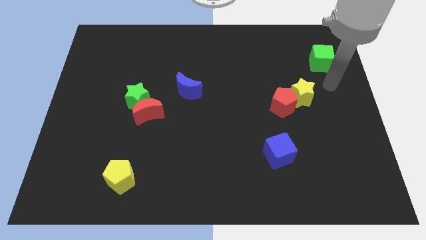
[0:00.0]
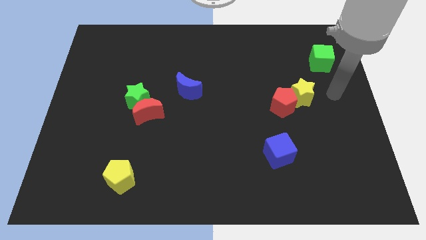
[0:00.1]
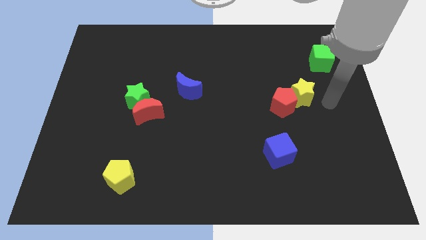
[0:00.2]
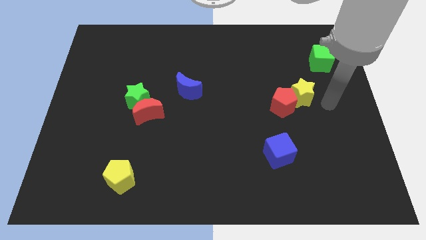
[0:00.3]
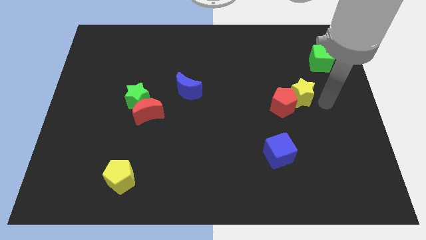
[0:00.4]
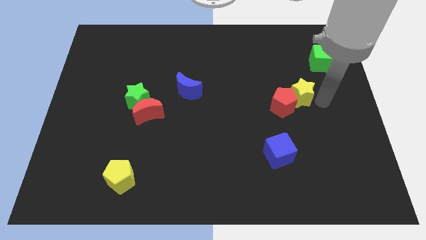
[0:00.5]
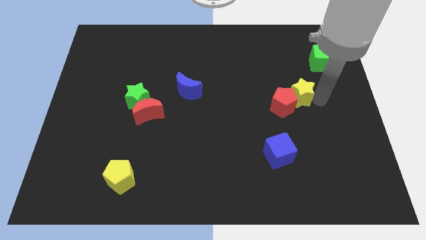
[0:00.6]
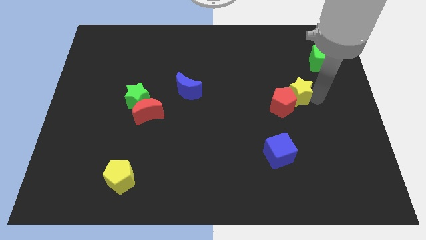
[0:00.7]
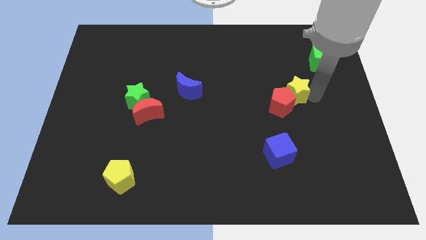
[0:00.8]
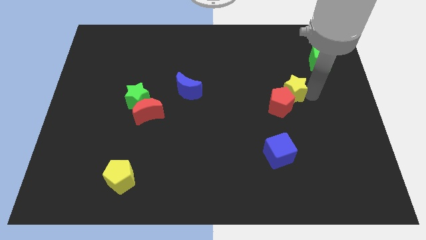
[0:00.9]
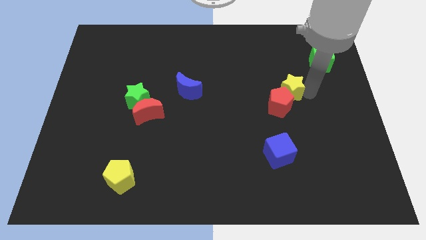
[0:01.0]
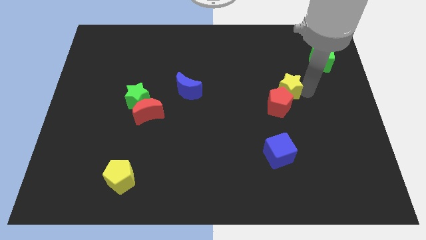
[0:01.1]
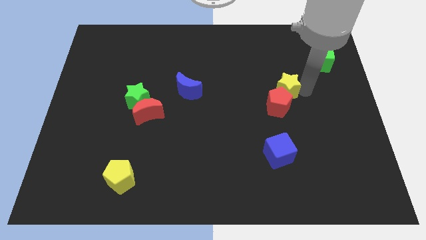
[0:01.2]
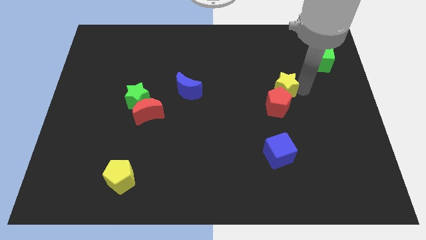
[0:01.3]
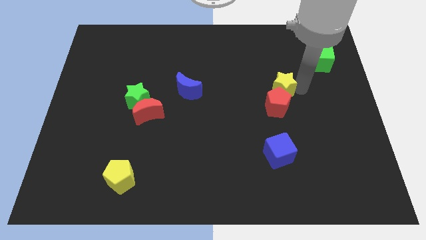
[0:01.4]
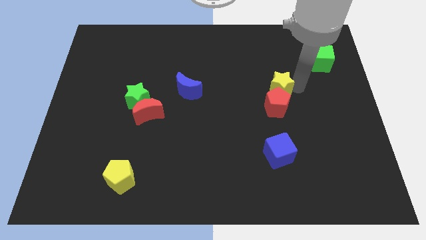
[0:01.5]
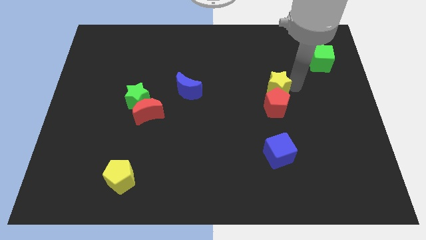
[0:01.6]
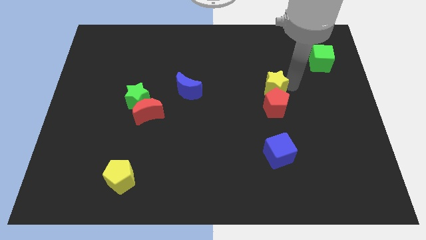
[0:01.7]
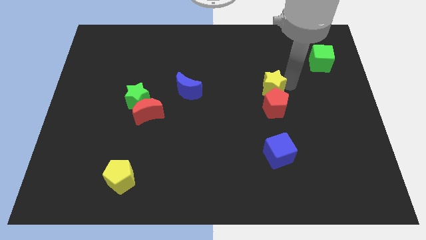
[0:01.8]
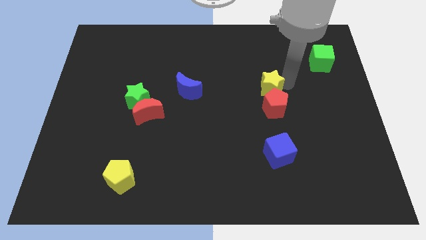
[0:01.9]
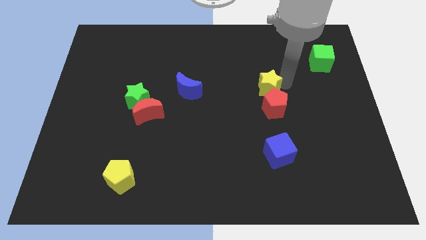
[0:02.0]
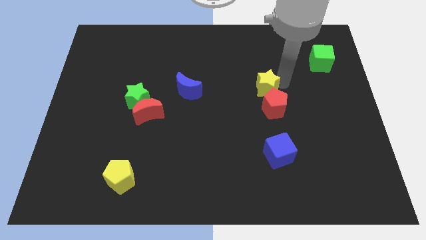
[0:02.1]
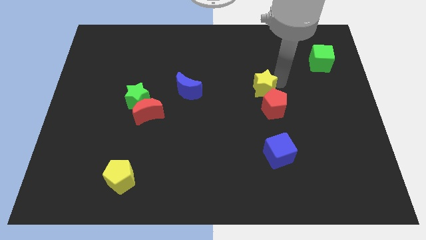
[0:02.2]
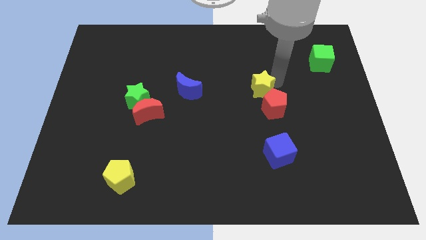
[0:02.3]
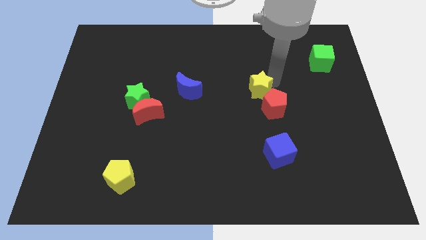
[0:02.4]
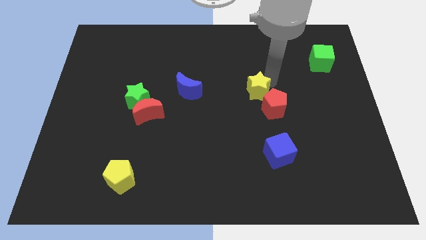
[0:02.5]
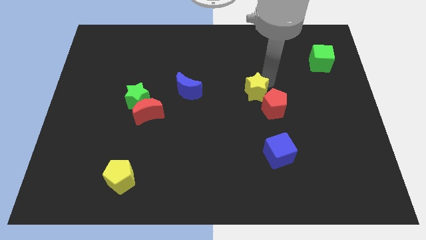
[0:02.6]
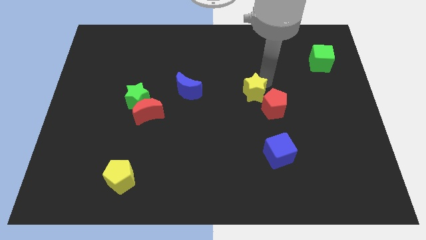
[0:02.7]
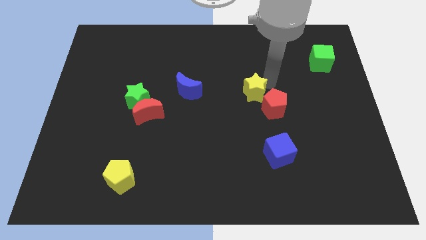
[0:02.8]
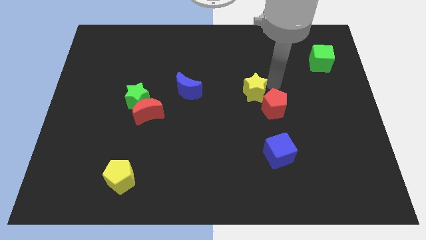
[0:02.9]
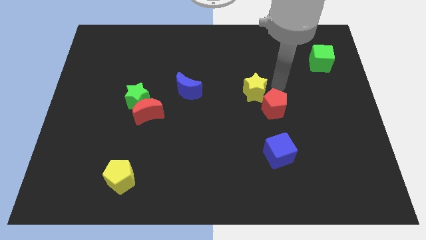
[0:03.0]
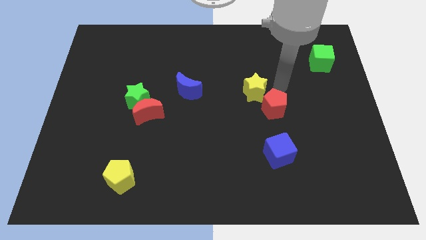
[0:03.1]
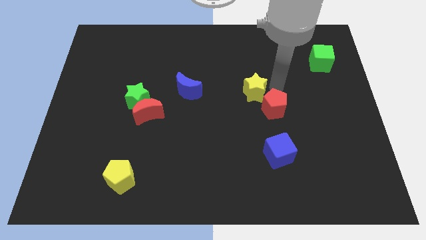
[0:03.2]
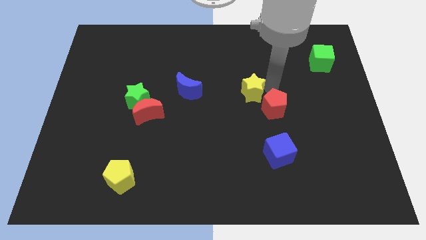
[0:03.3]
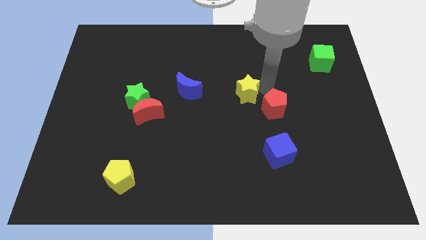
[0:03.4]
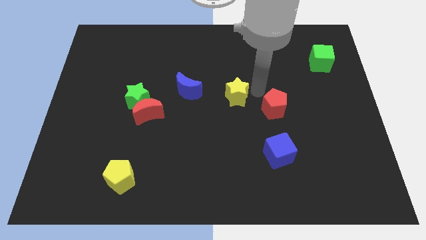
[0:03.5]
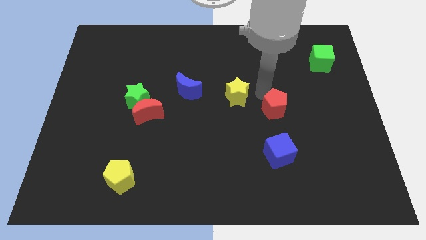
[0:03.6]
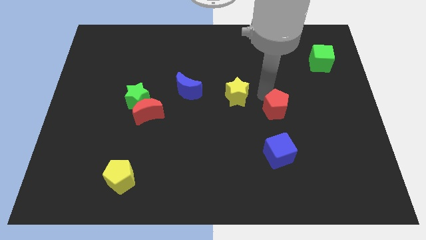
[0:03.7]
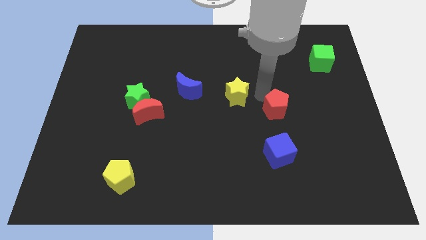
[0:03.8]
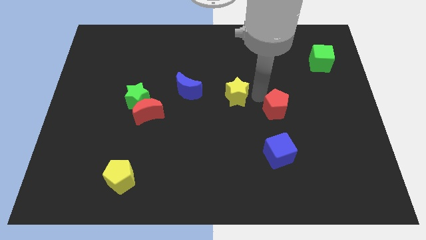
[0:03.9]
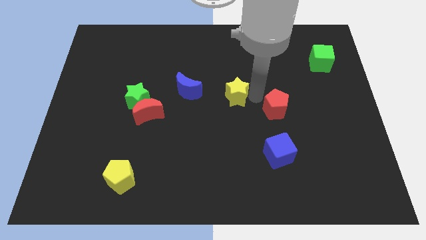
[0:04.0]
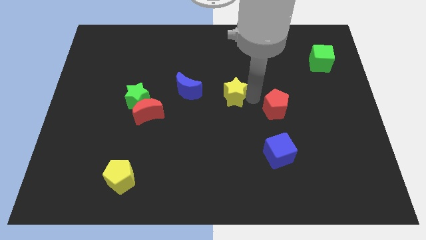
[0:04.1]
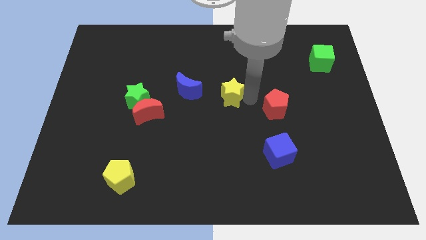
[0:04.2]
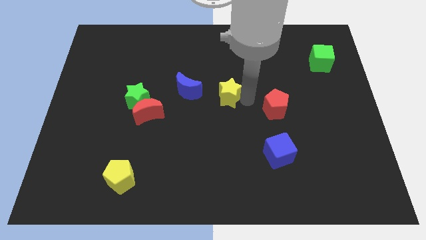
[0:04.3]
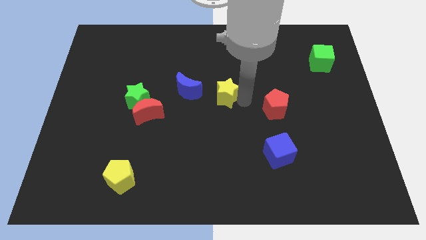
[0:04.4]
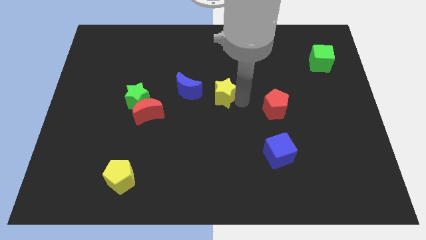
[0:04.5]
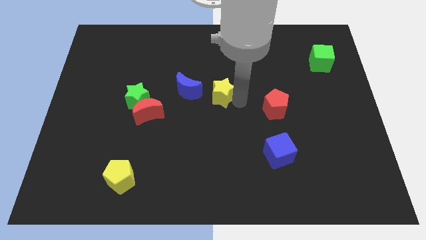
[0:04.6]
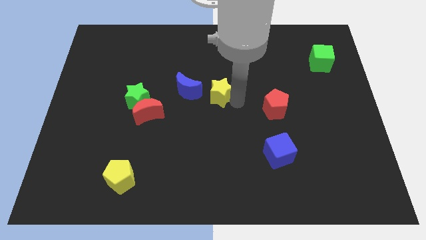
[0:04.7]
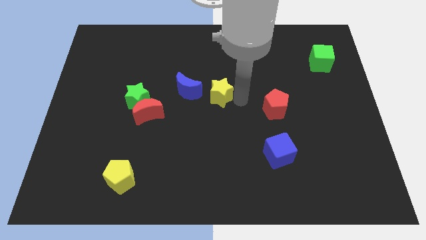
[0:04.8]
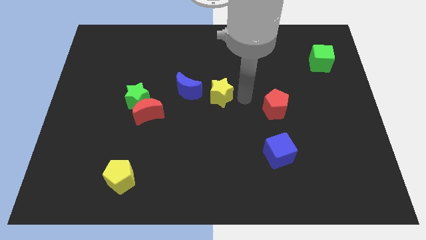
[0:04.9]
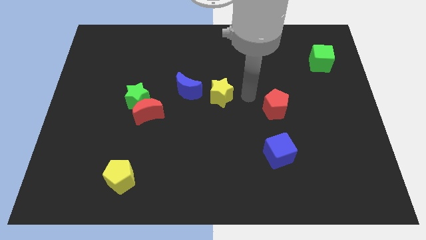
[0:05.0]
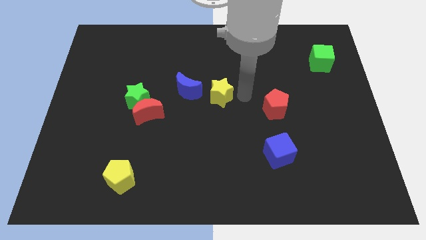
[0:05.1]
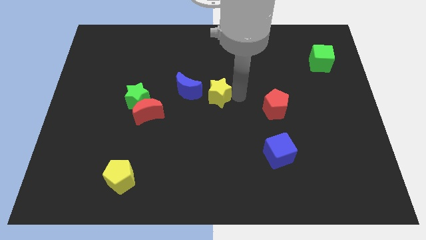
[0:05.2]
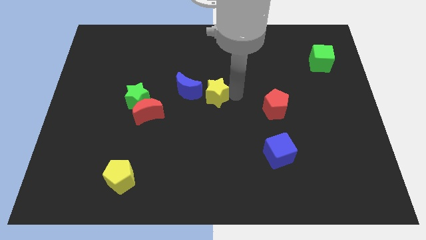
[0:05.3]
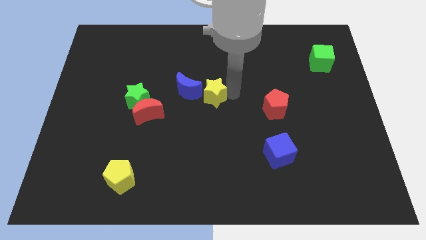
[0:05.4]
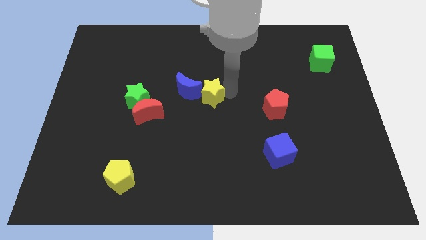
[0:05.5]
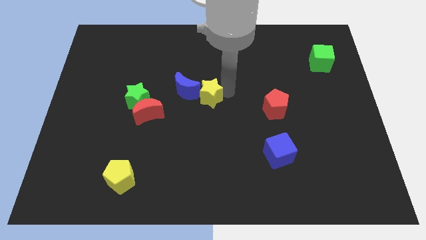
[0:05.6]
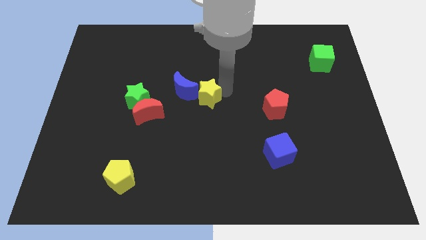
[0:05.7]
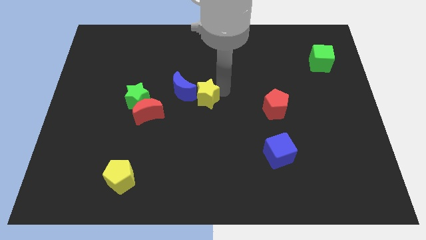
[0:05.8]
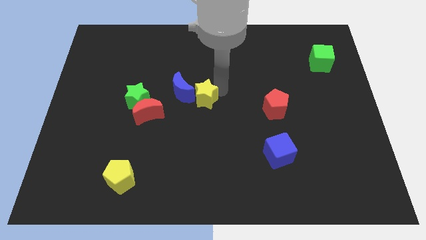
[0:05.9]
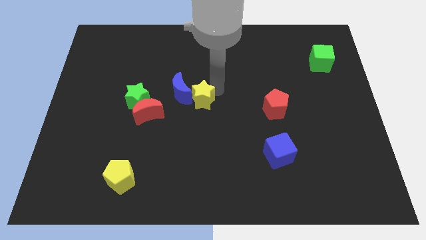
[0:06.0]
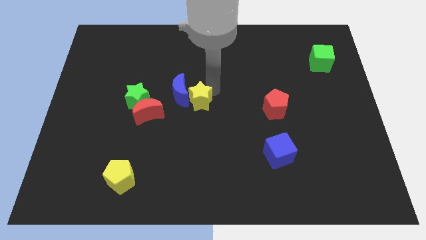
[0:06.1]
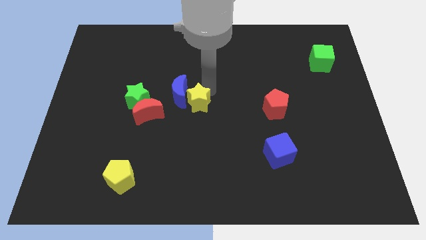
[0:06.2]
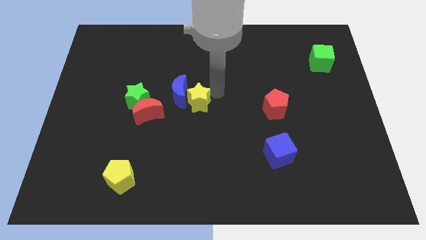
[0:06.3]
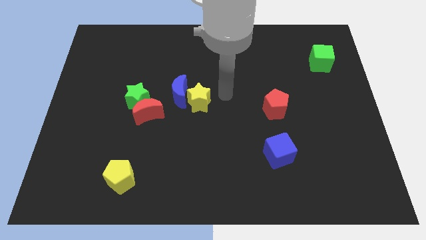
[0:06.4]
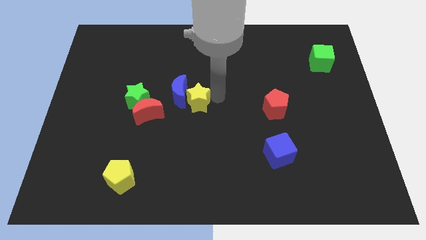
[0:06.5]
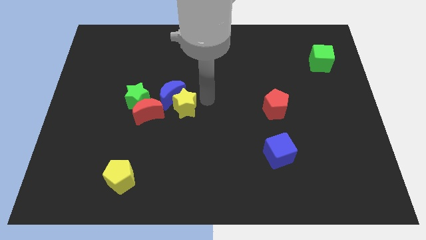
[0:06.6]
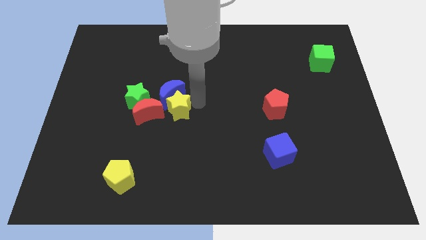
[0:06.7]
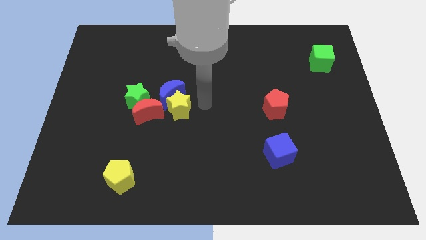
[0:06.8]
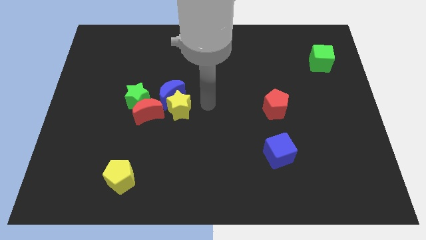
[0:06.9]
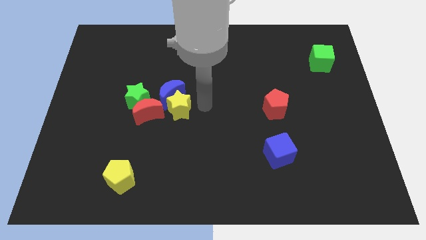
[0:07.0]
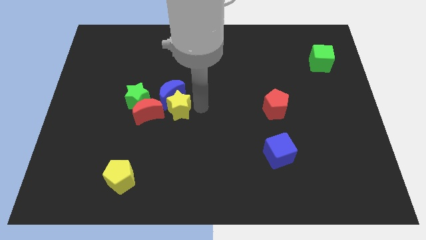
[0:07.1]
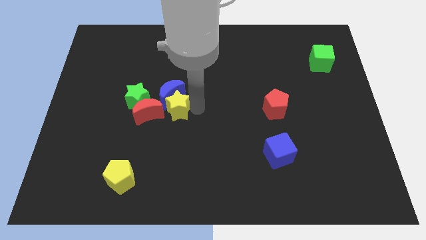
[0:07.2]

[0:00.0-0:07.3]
push the yellow star to the bottom left of the blue moon
